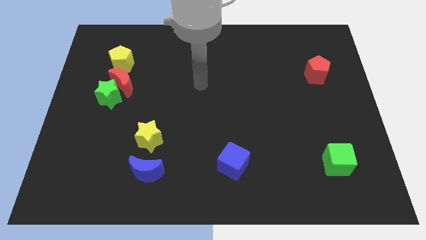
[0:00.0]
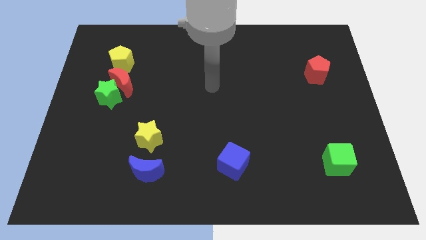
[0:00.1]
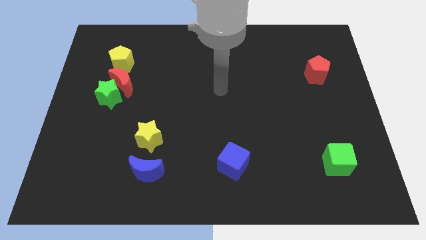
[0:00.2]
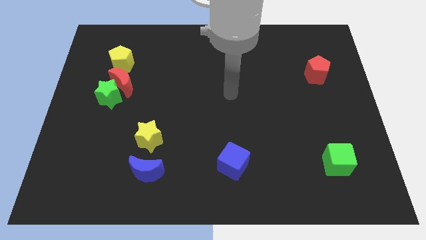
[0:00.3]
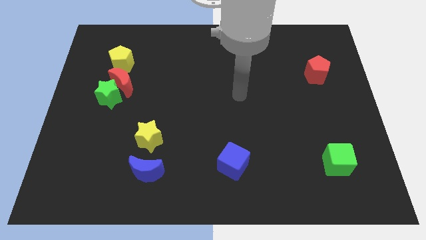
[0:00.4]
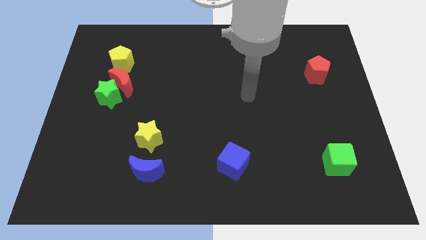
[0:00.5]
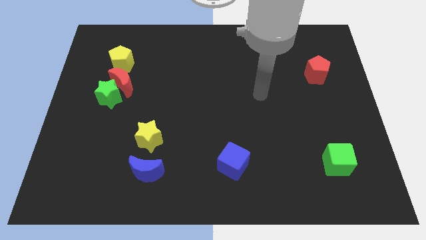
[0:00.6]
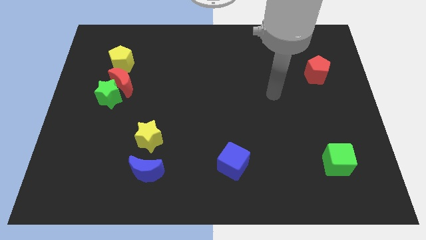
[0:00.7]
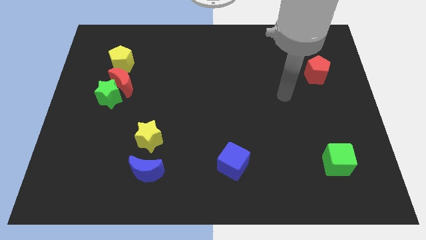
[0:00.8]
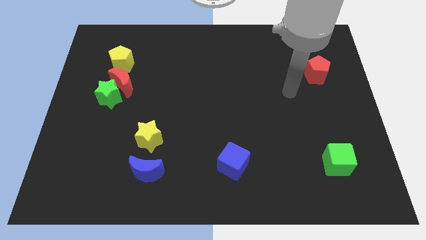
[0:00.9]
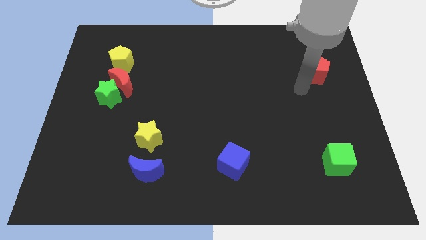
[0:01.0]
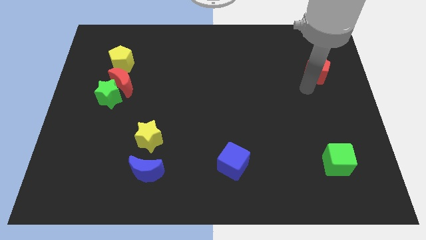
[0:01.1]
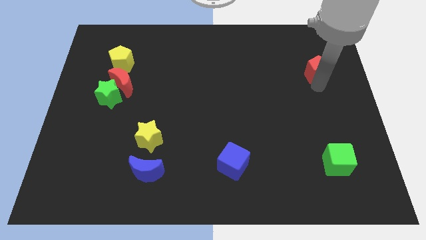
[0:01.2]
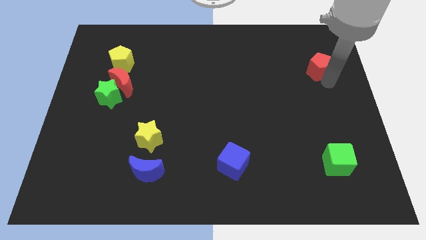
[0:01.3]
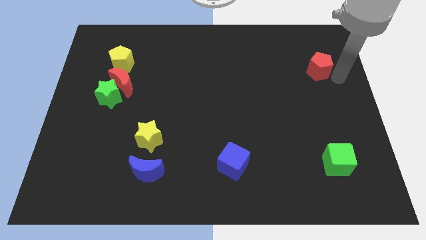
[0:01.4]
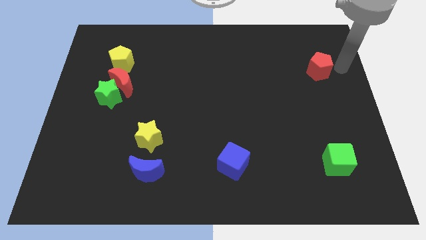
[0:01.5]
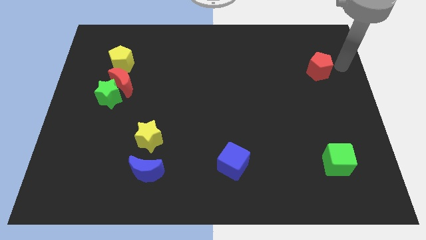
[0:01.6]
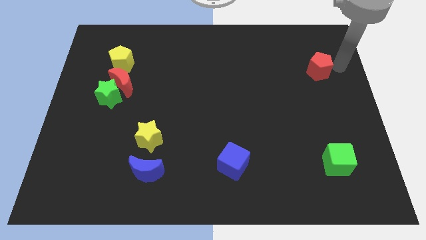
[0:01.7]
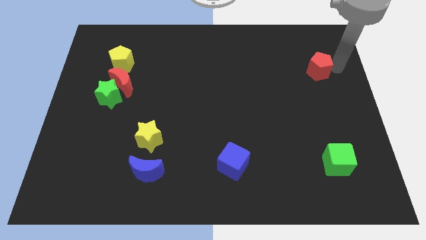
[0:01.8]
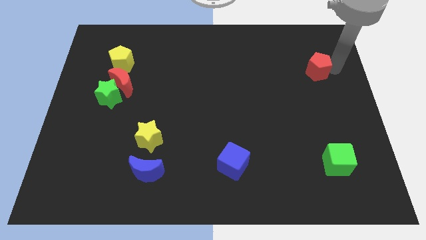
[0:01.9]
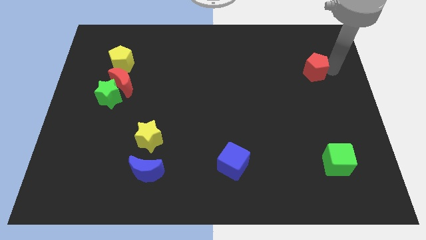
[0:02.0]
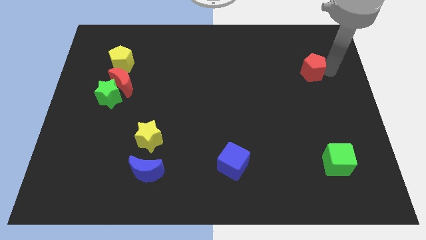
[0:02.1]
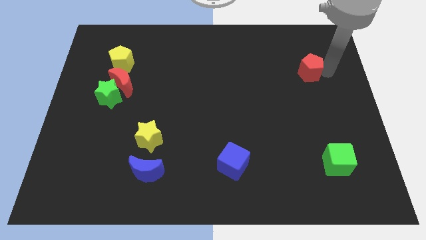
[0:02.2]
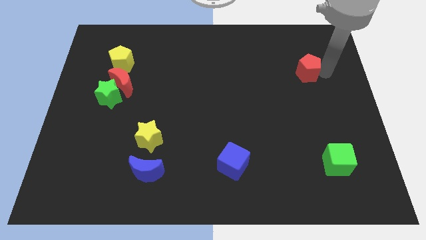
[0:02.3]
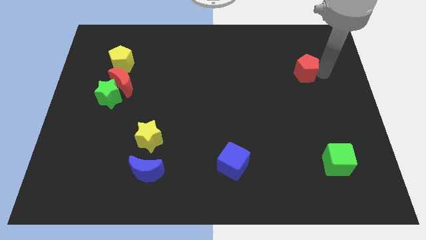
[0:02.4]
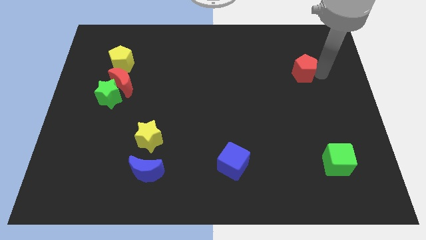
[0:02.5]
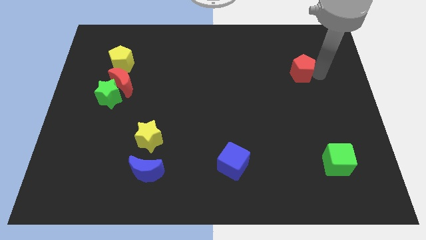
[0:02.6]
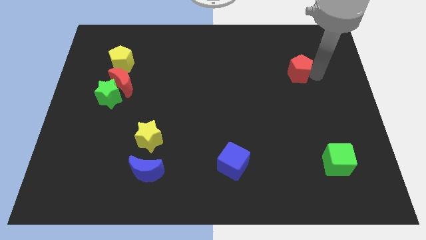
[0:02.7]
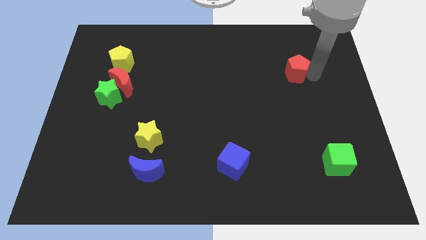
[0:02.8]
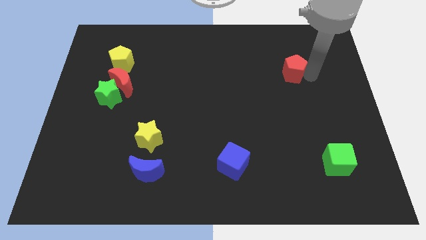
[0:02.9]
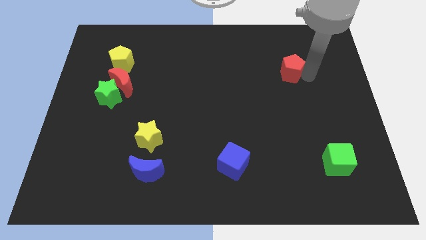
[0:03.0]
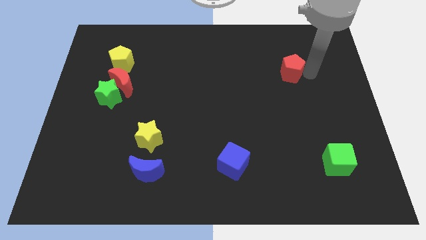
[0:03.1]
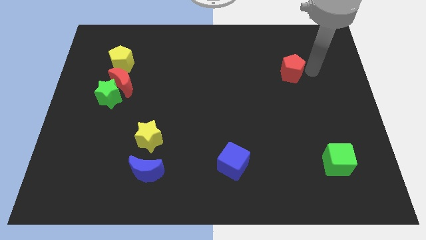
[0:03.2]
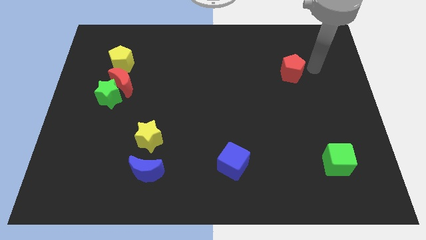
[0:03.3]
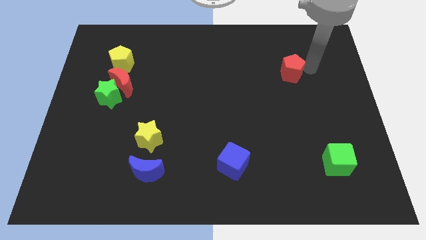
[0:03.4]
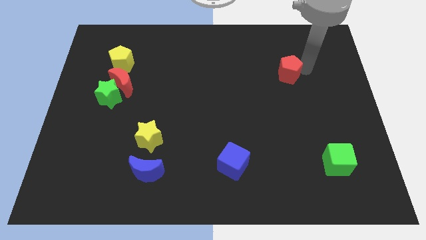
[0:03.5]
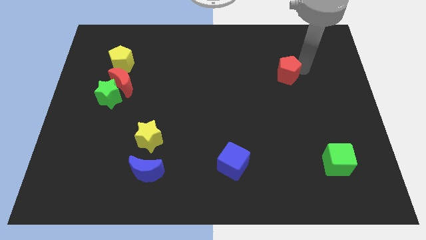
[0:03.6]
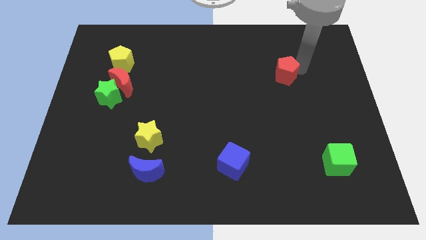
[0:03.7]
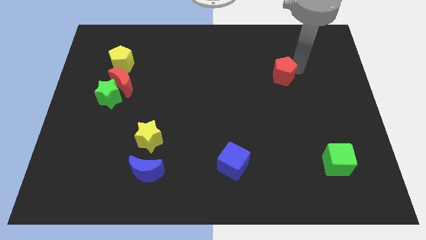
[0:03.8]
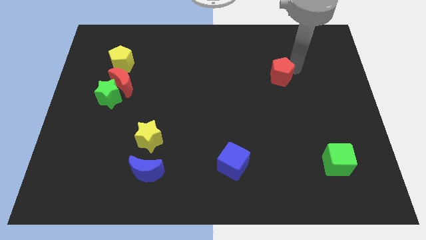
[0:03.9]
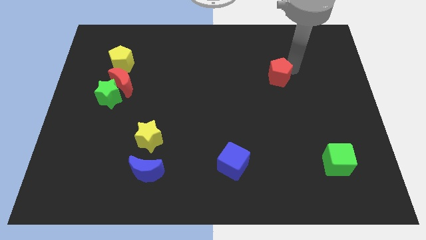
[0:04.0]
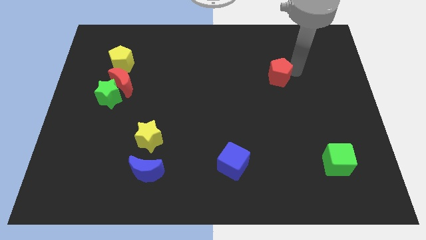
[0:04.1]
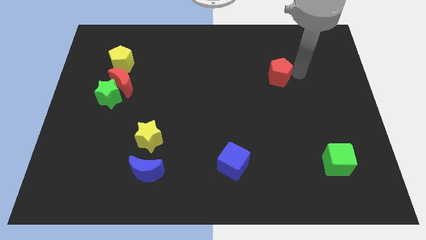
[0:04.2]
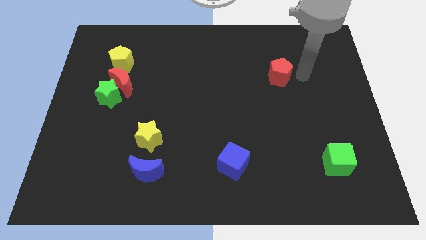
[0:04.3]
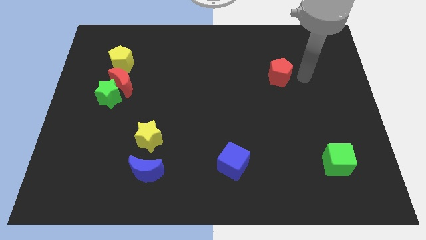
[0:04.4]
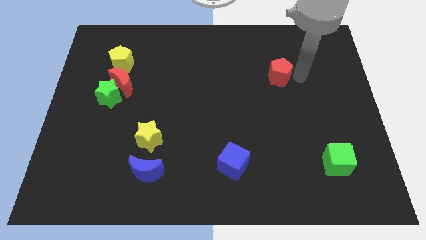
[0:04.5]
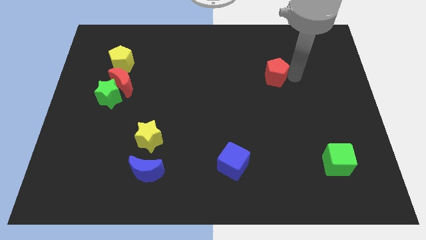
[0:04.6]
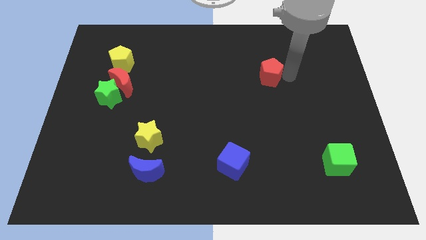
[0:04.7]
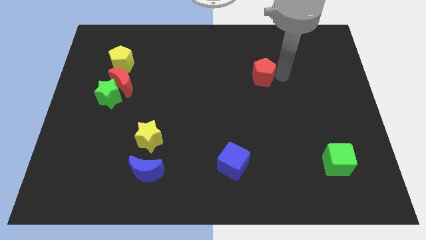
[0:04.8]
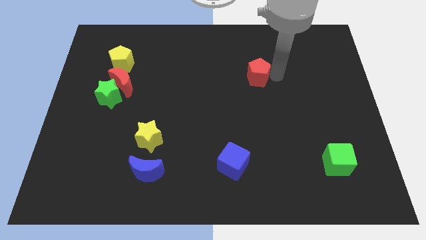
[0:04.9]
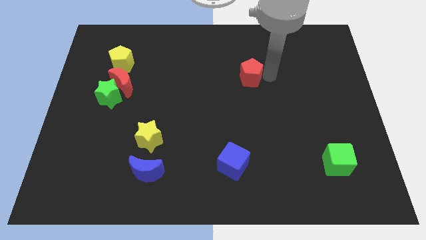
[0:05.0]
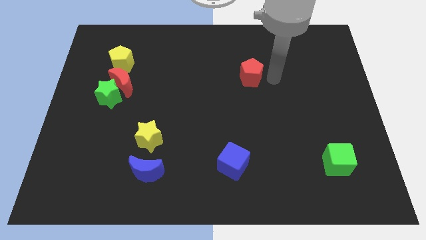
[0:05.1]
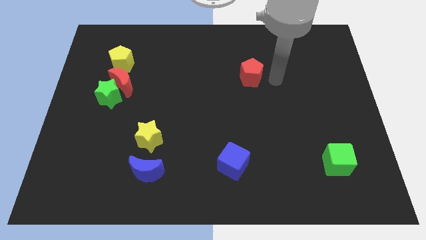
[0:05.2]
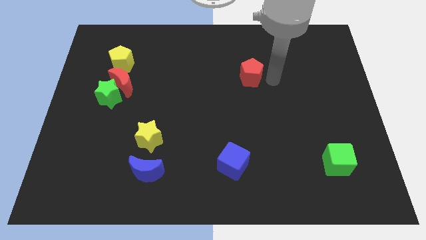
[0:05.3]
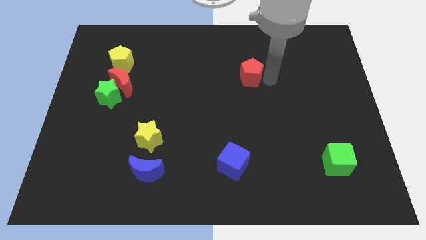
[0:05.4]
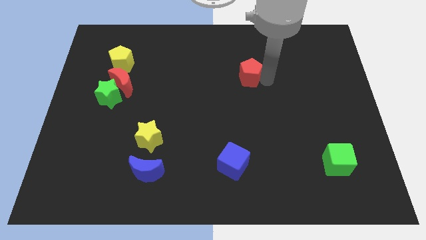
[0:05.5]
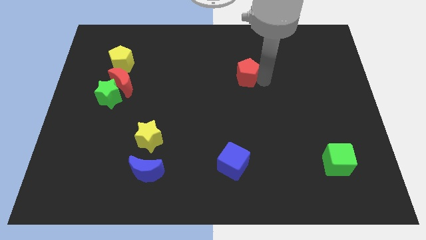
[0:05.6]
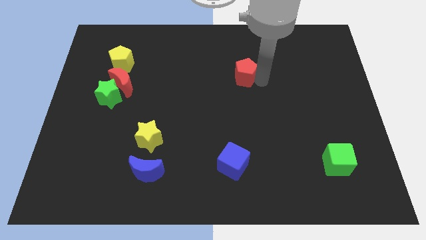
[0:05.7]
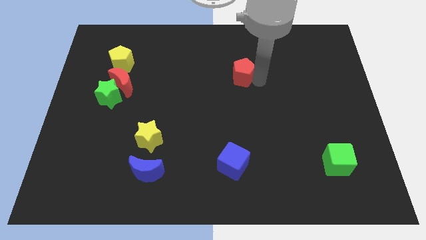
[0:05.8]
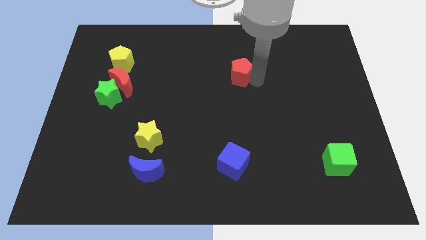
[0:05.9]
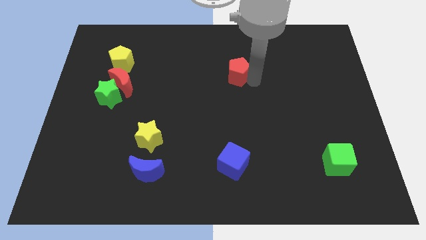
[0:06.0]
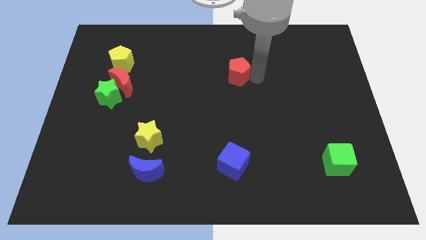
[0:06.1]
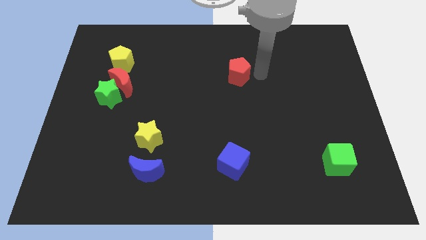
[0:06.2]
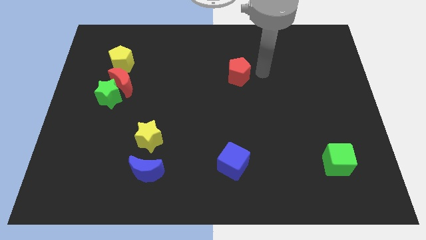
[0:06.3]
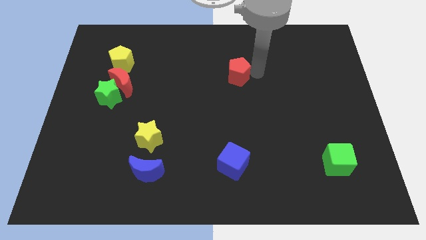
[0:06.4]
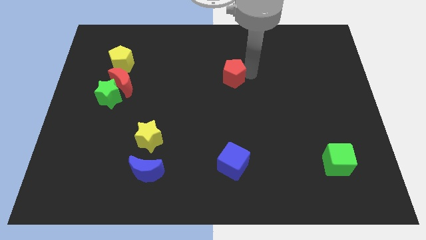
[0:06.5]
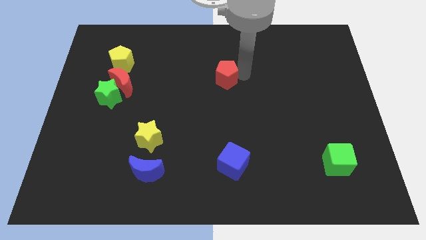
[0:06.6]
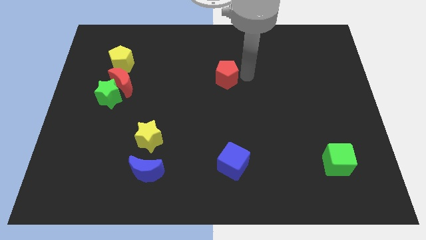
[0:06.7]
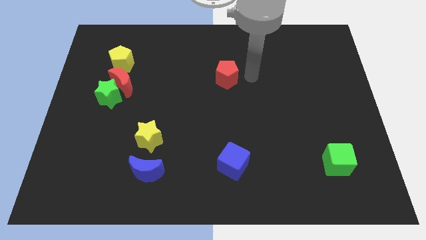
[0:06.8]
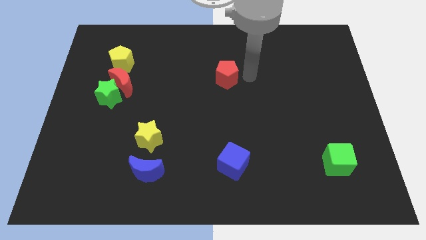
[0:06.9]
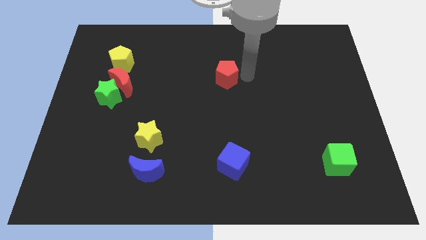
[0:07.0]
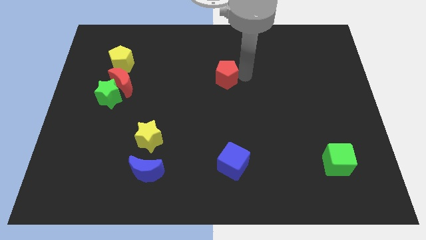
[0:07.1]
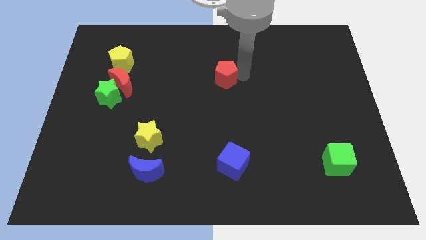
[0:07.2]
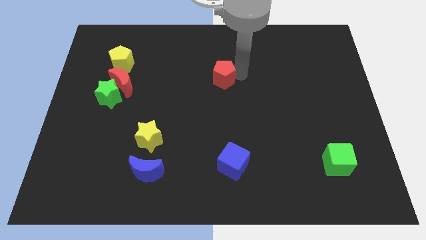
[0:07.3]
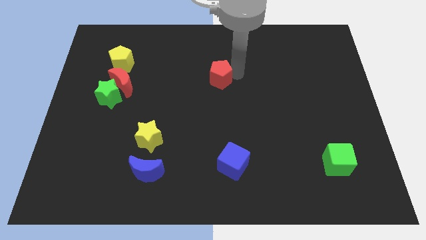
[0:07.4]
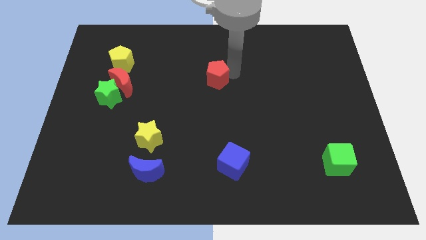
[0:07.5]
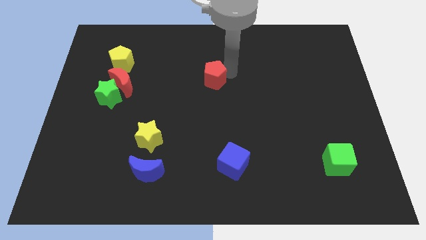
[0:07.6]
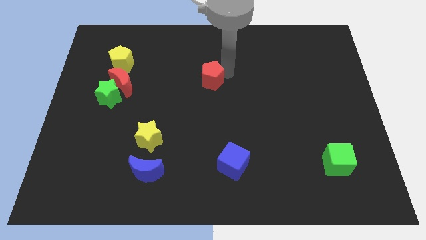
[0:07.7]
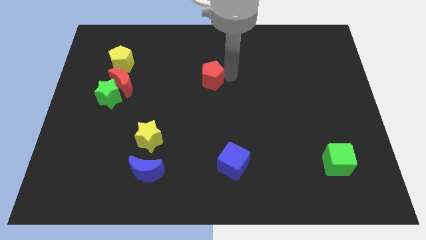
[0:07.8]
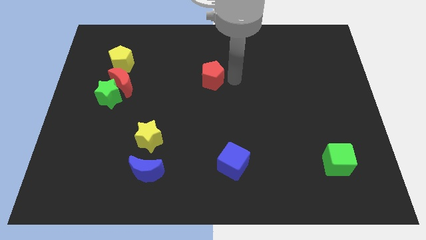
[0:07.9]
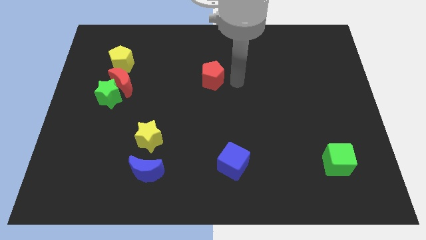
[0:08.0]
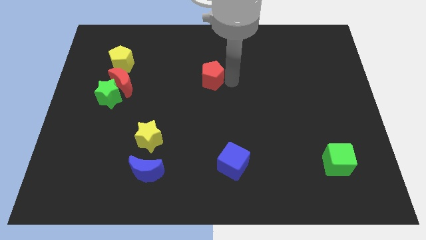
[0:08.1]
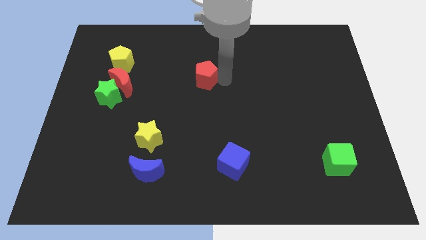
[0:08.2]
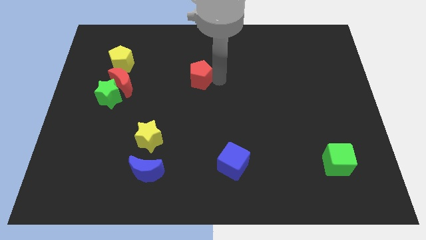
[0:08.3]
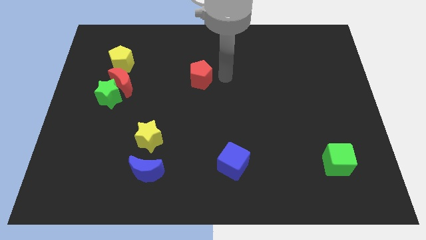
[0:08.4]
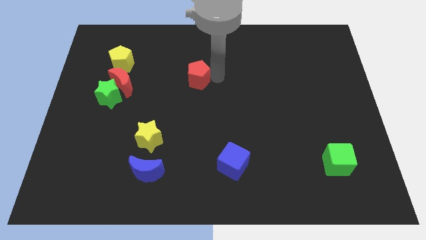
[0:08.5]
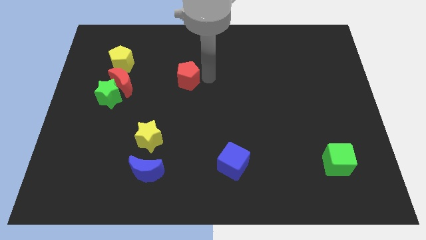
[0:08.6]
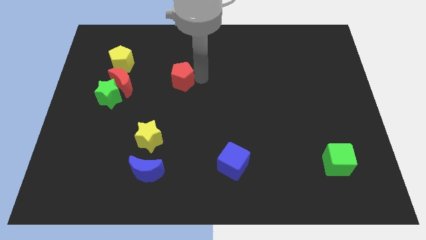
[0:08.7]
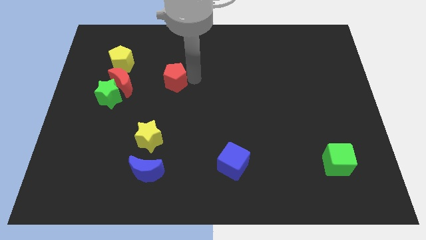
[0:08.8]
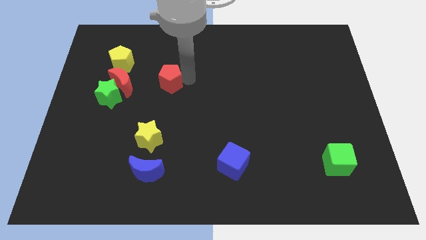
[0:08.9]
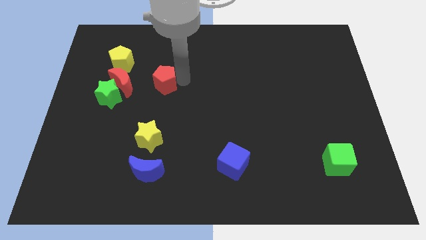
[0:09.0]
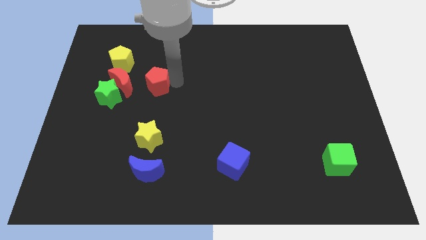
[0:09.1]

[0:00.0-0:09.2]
push the red pentagon diagonally down and to the right of the yellow pentagon
